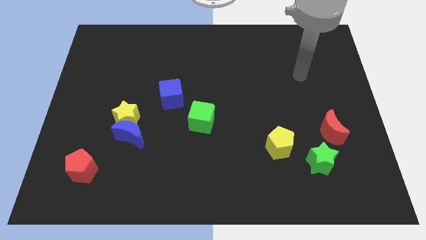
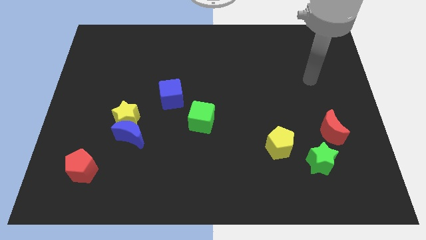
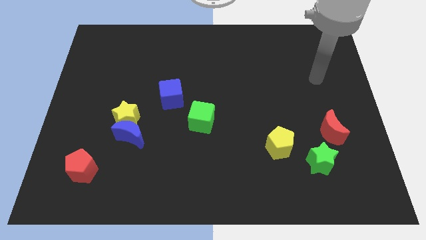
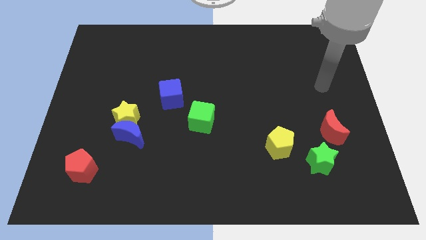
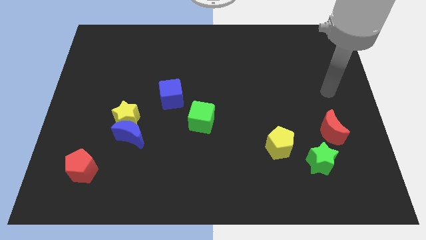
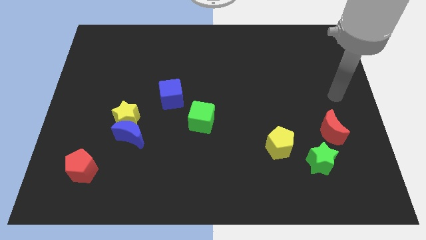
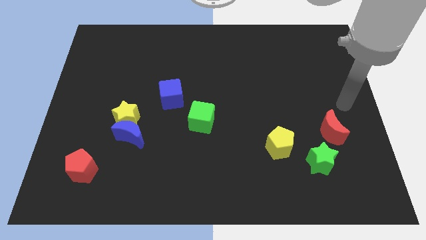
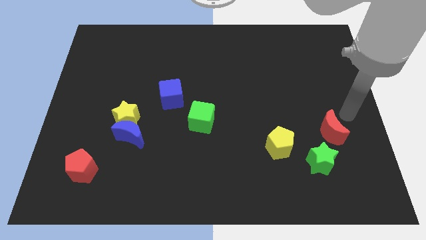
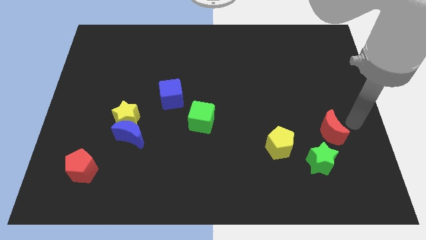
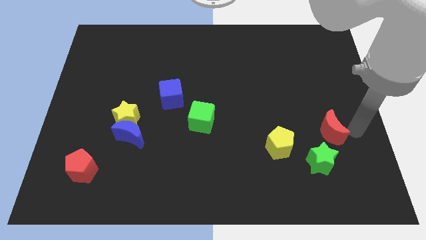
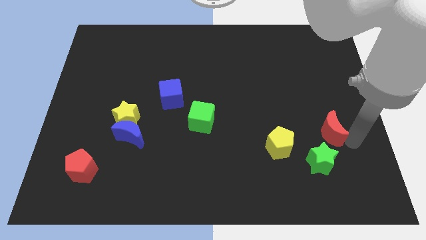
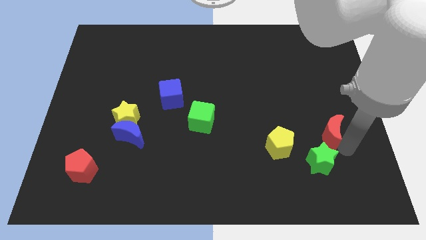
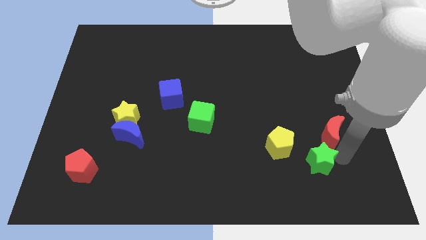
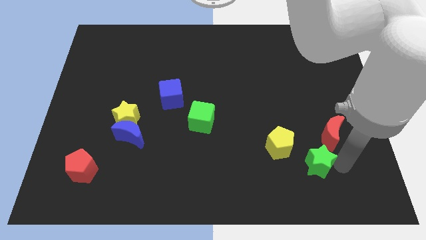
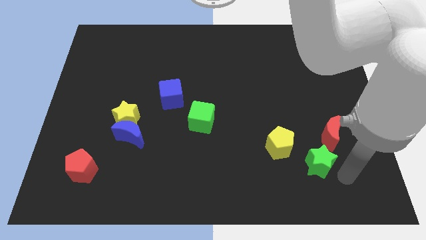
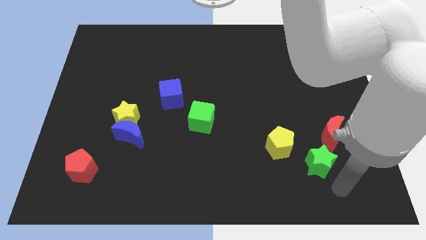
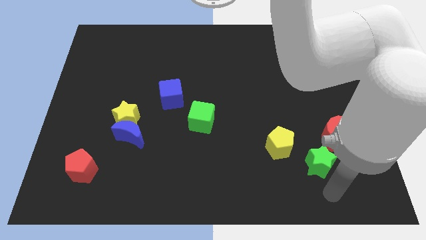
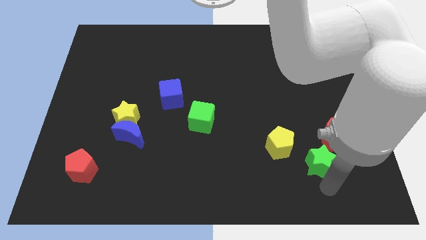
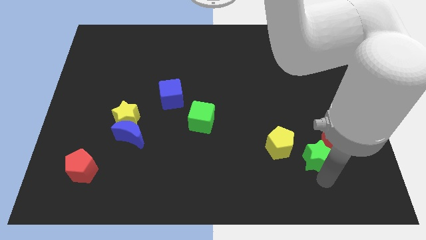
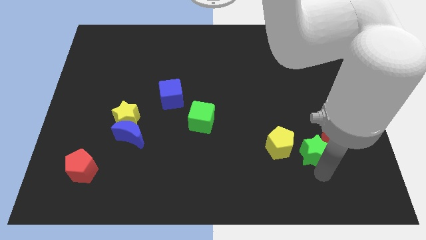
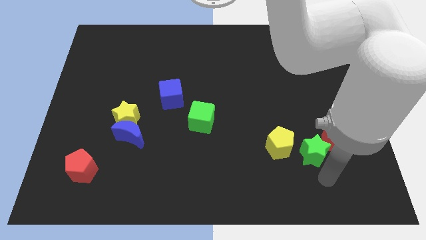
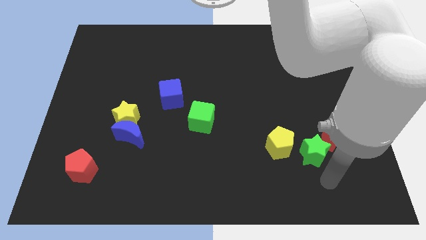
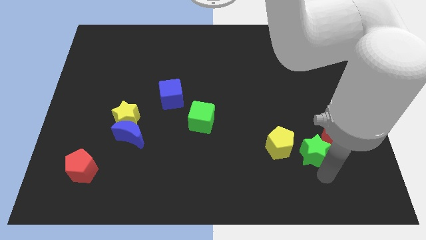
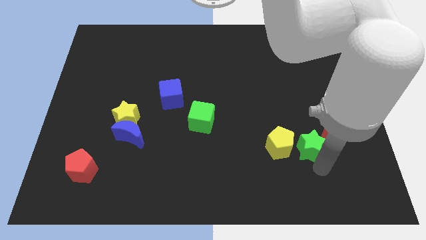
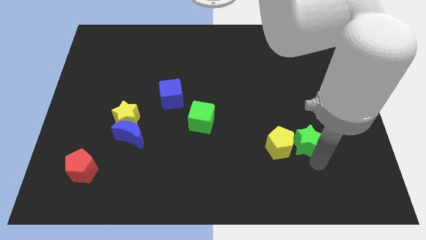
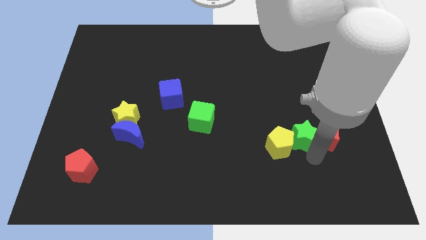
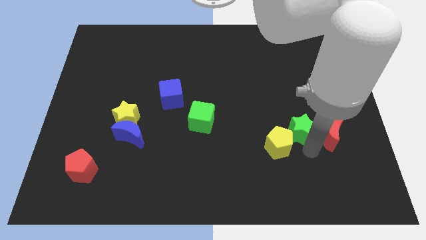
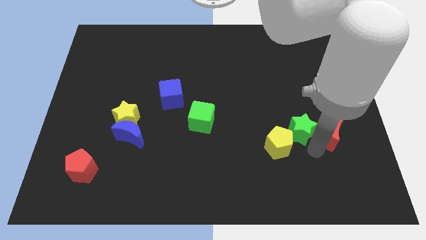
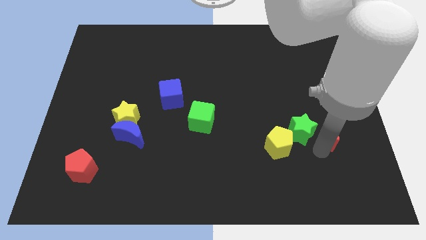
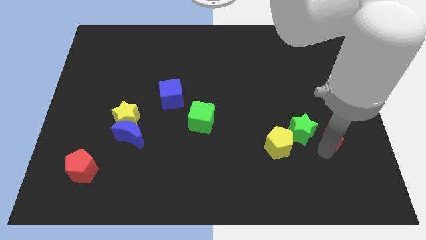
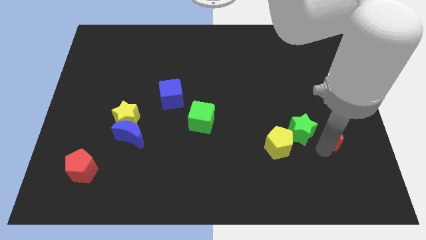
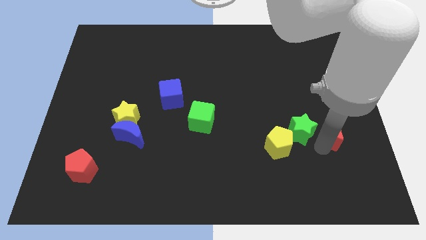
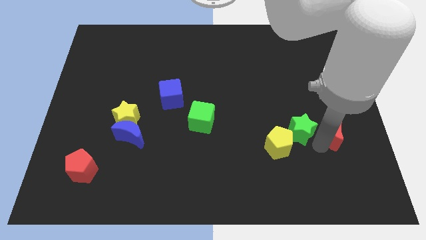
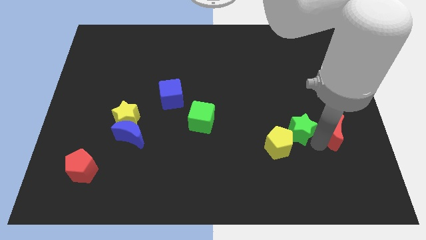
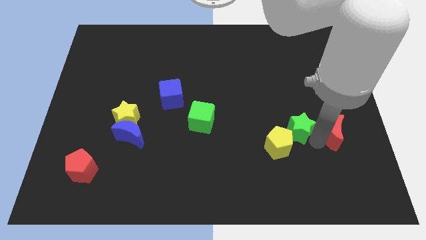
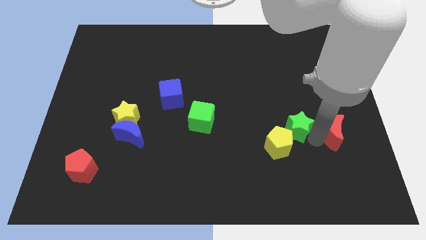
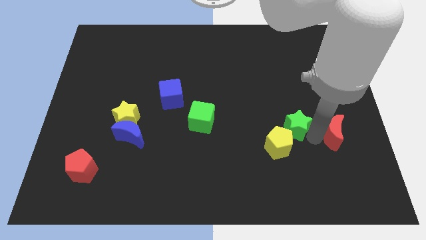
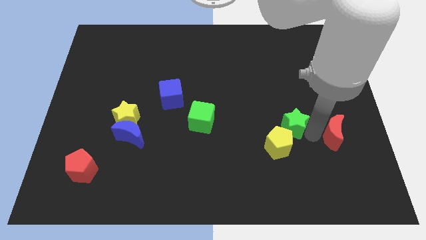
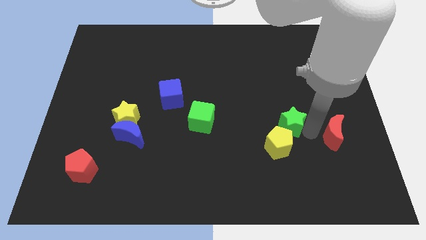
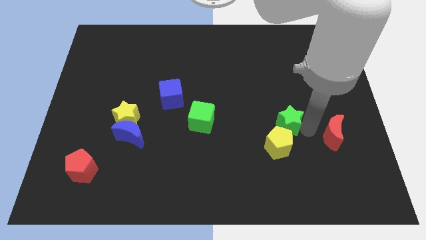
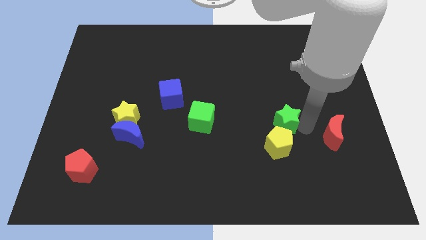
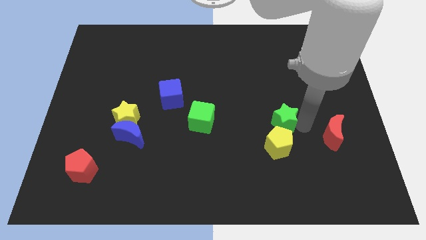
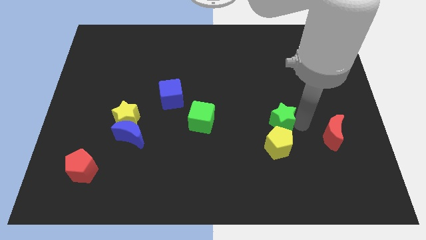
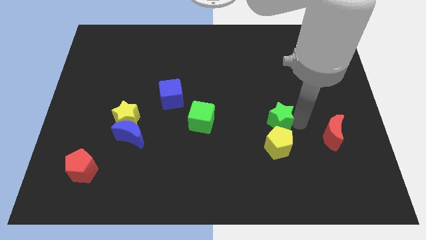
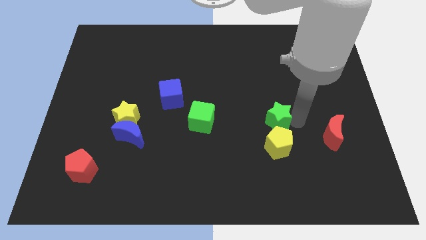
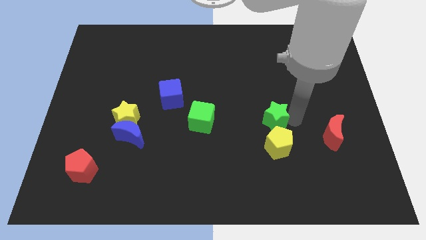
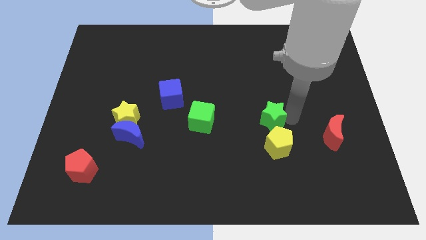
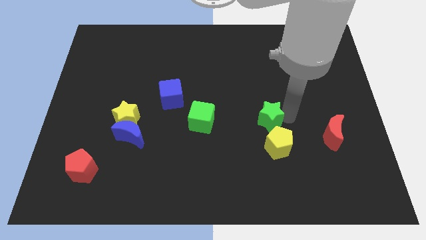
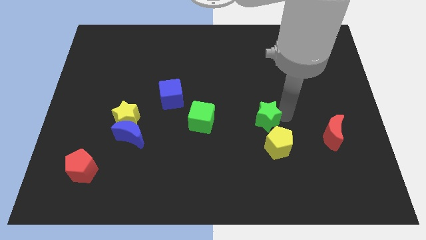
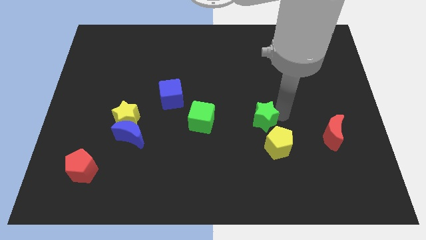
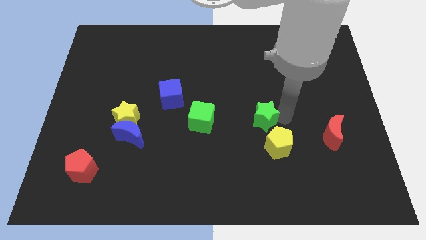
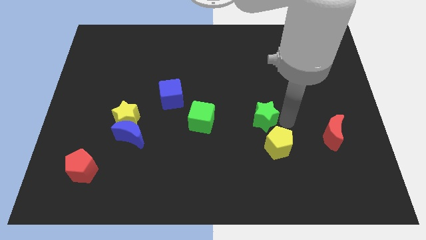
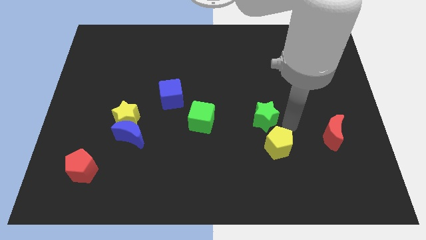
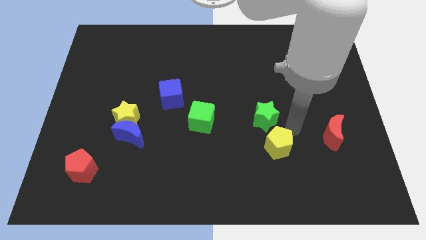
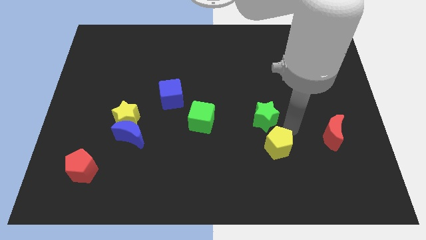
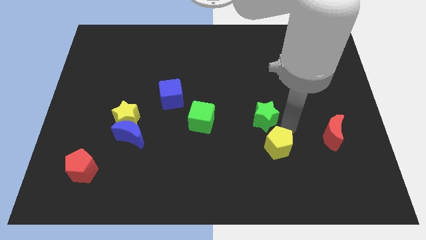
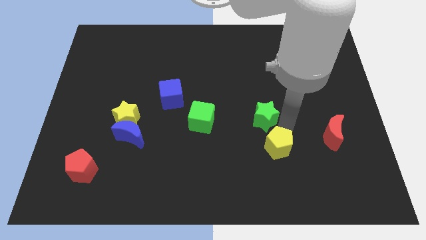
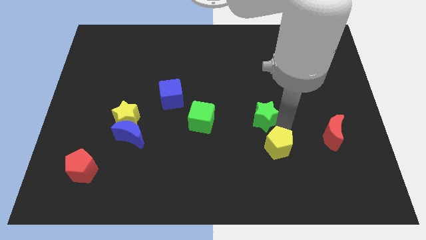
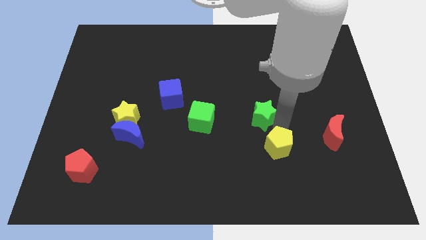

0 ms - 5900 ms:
slide the green star to the center
